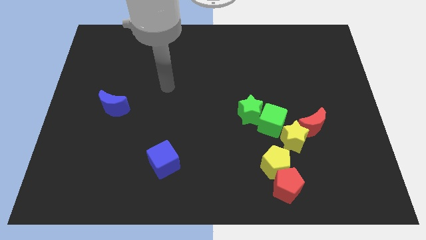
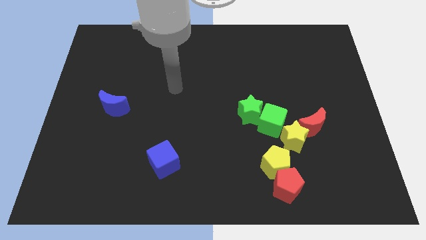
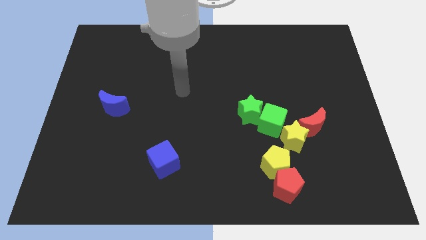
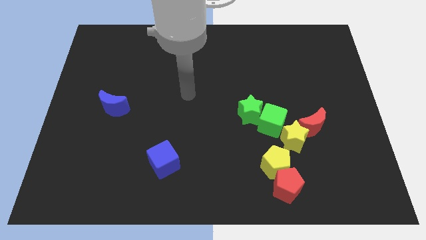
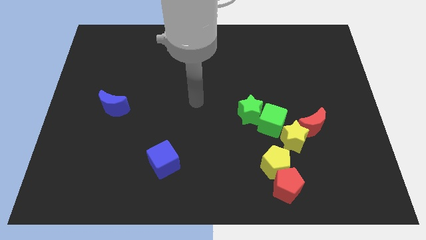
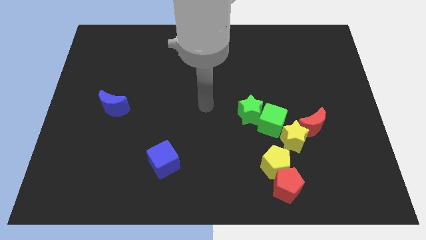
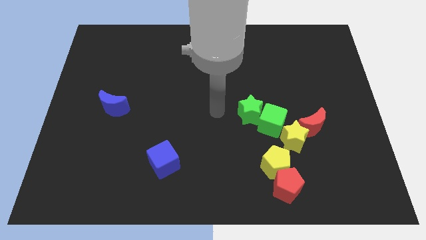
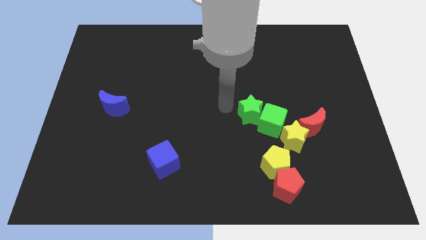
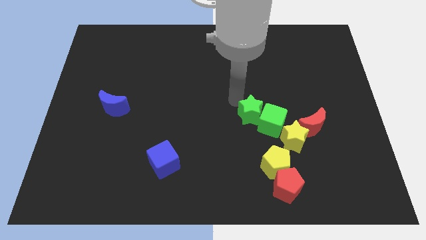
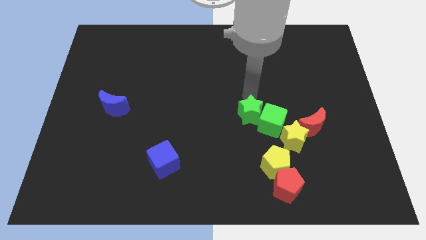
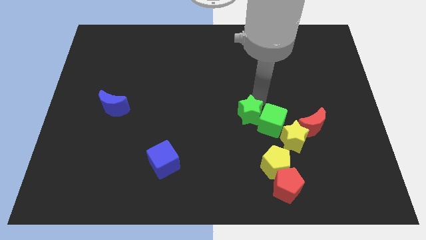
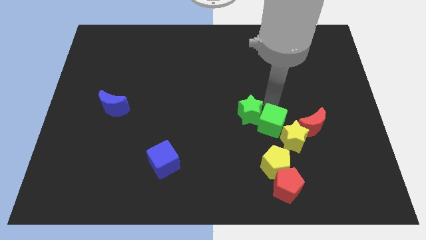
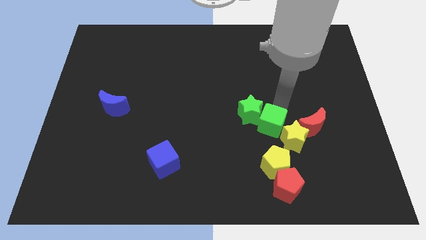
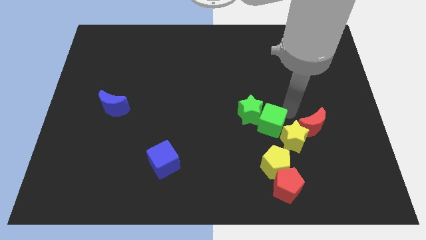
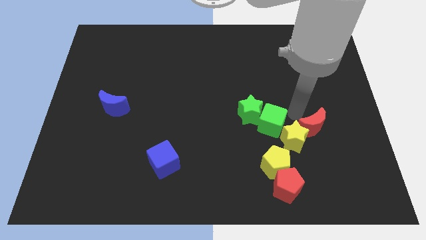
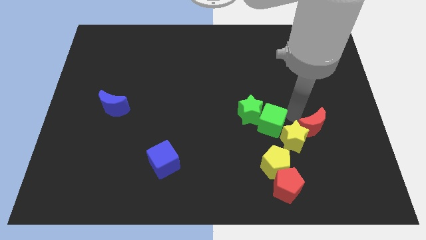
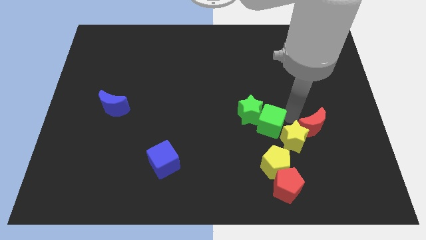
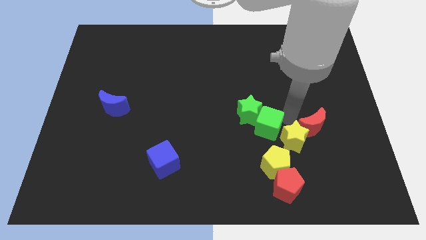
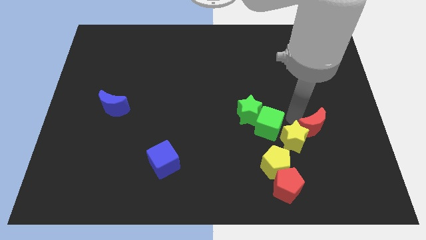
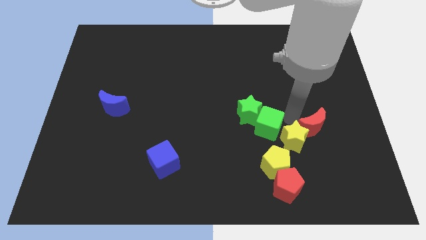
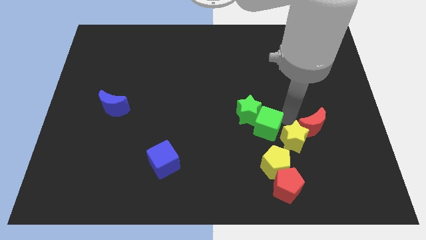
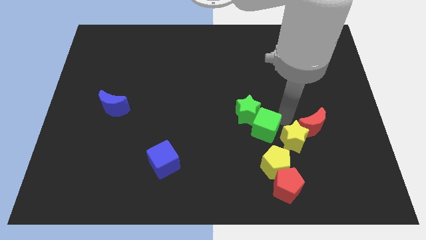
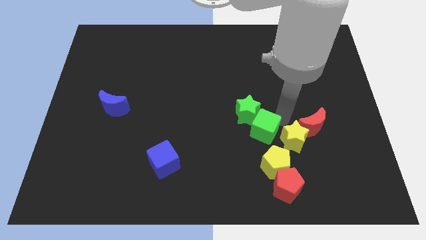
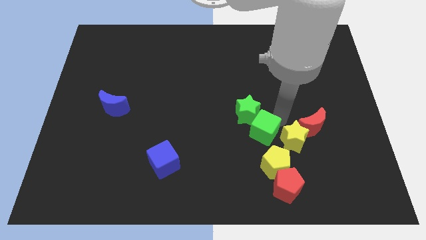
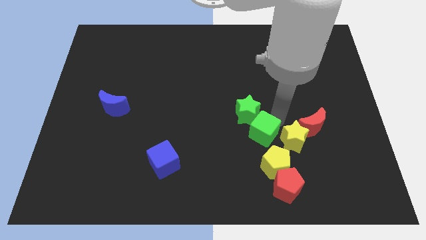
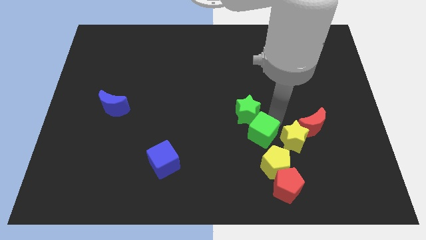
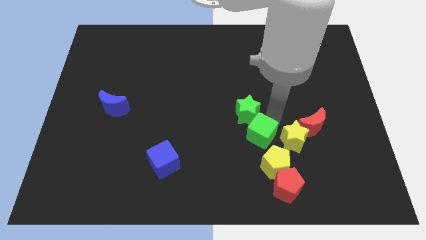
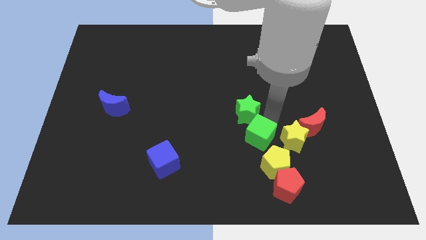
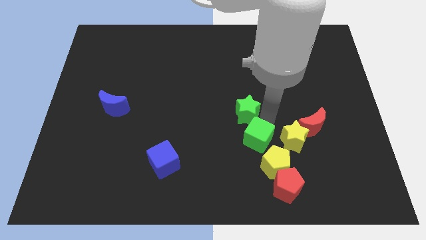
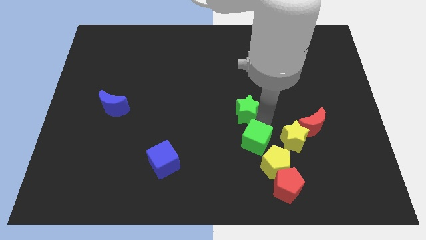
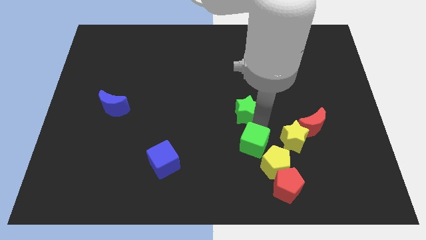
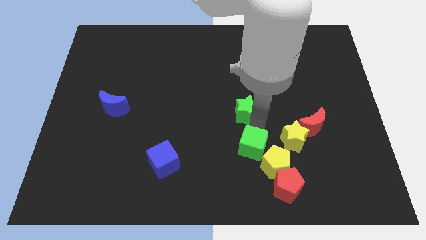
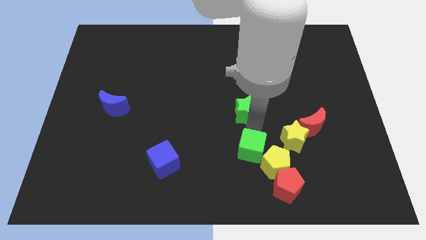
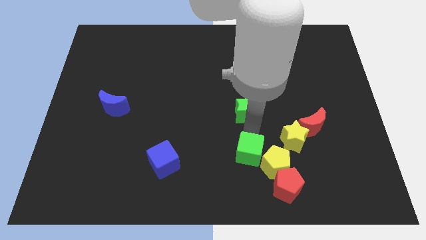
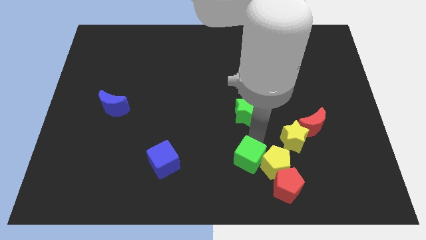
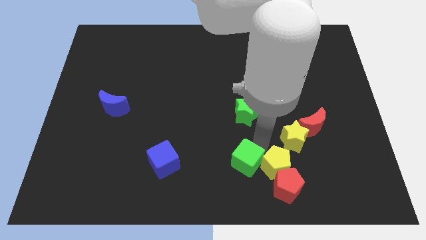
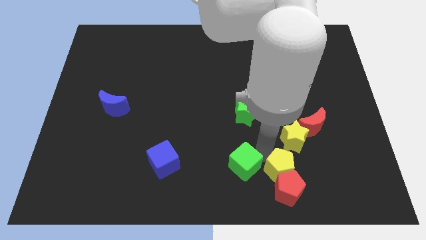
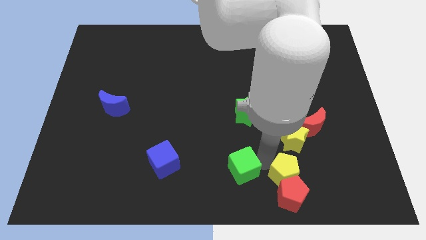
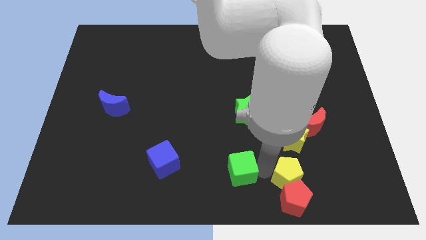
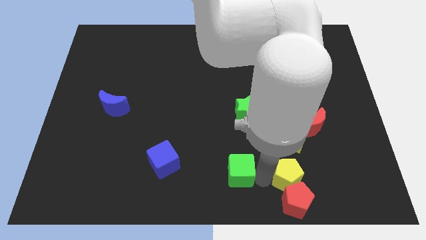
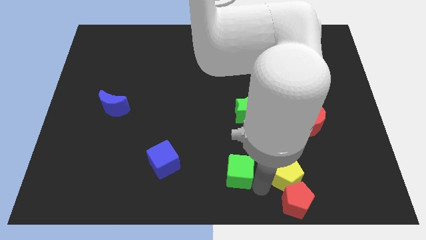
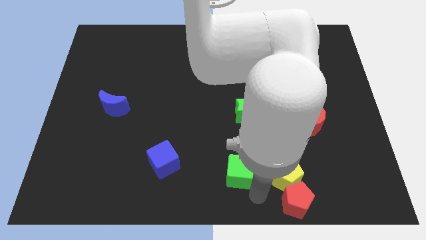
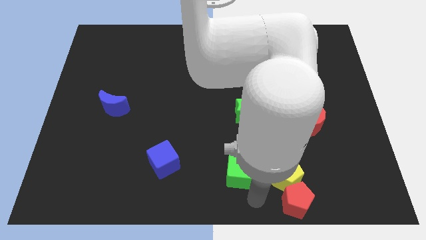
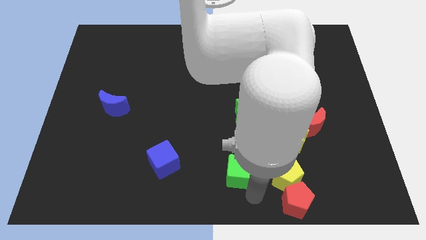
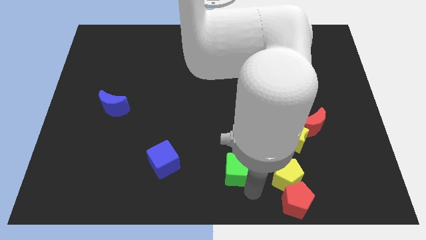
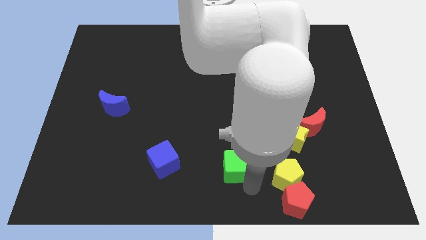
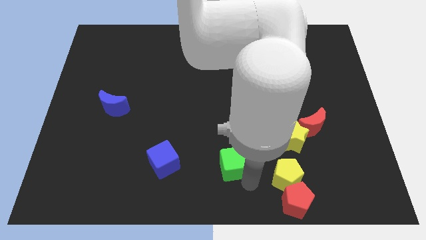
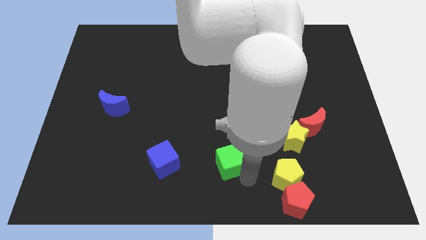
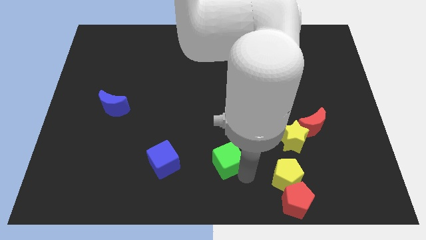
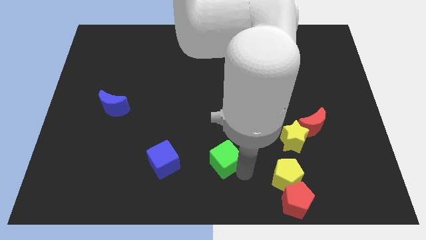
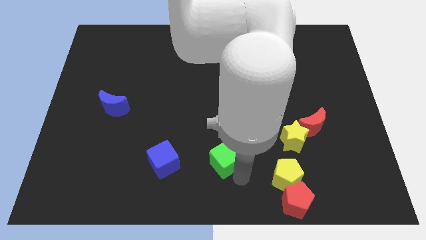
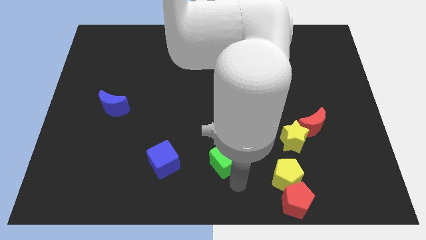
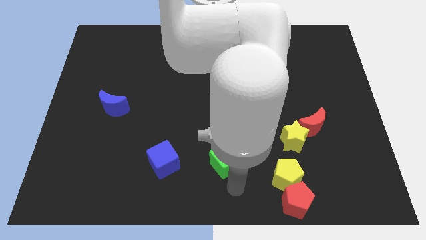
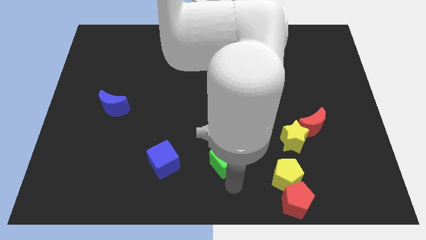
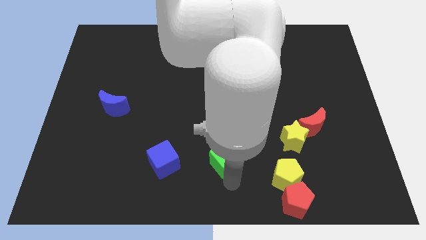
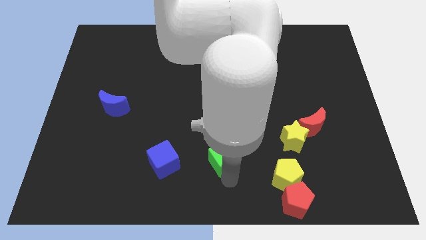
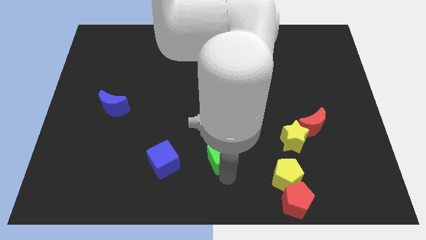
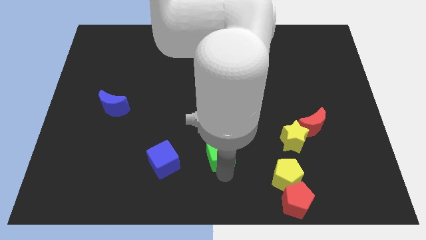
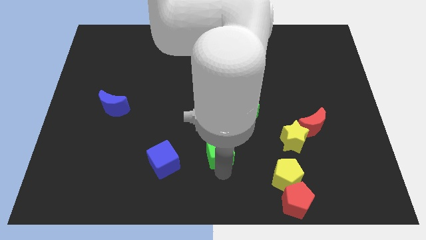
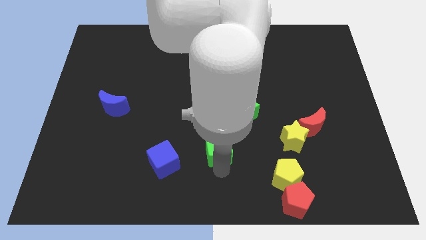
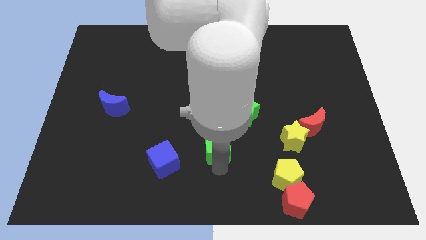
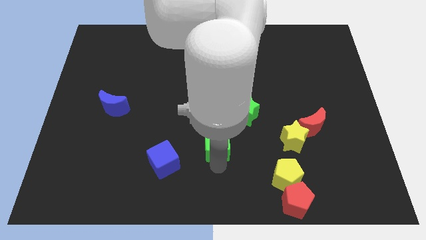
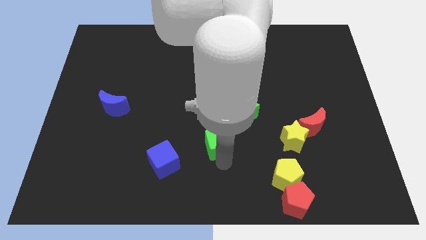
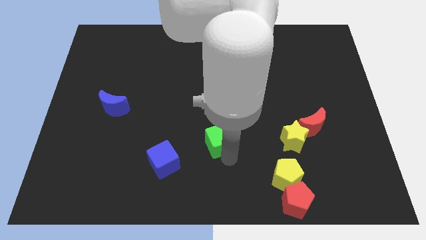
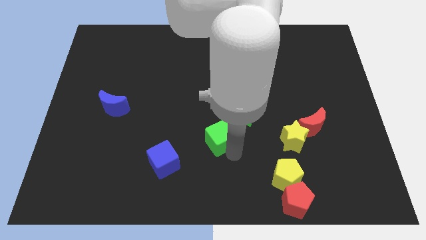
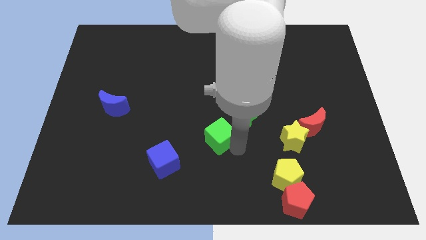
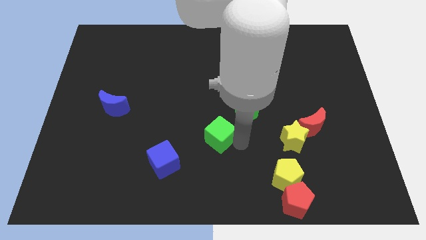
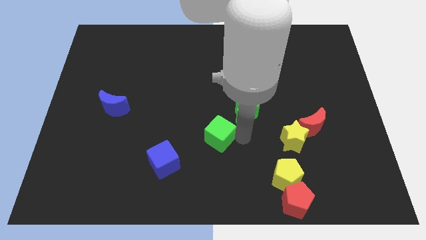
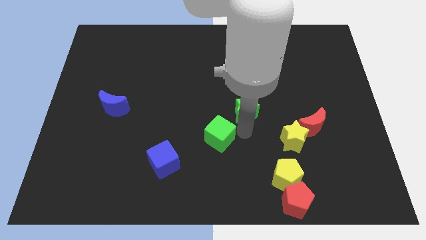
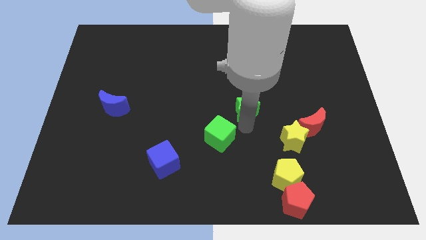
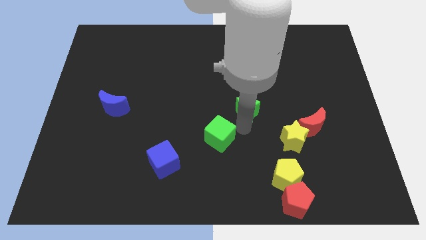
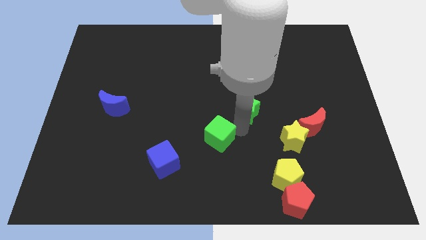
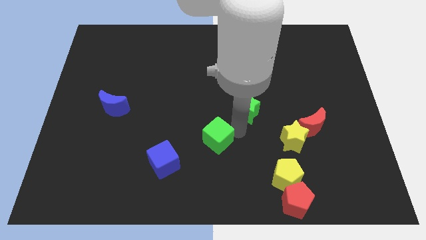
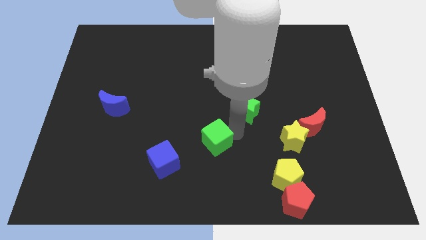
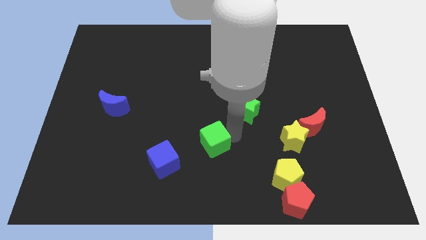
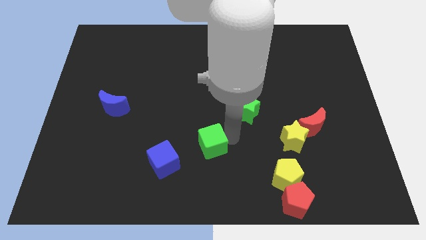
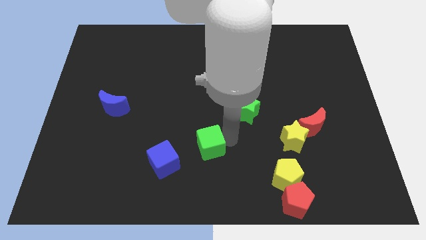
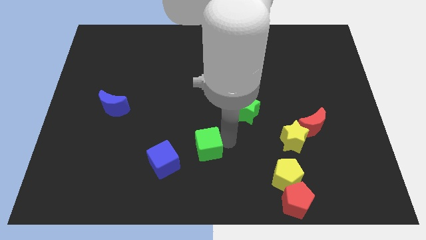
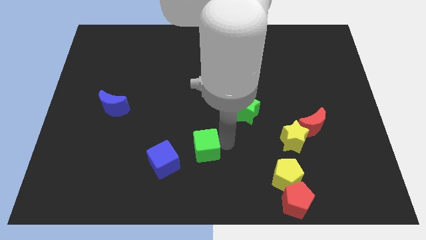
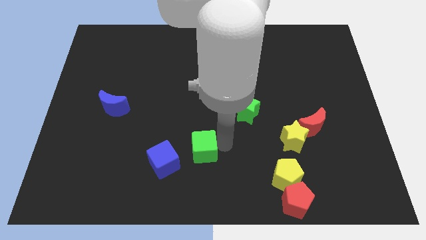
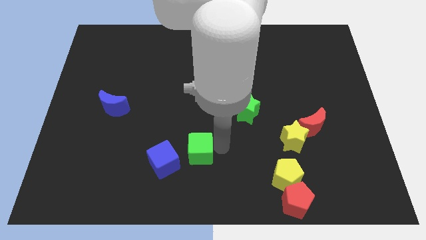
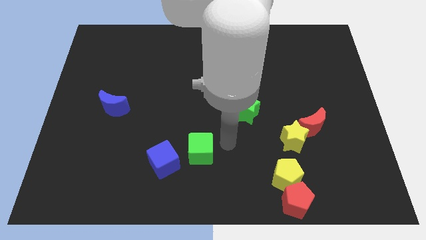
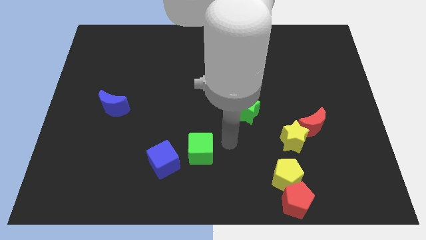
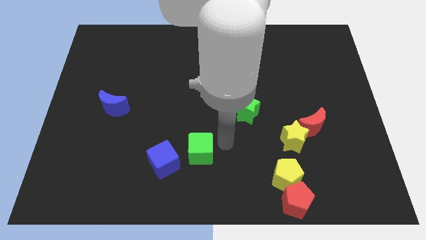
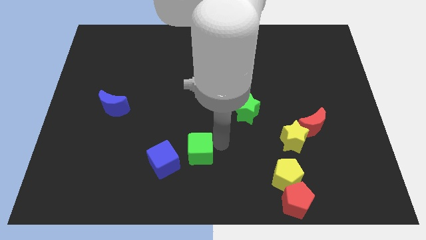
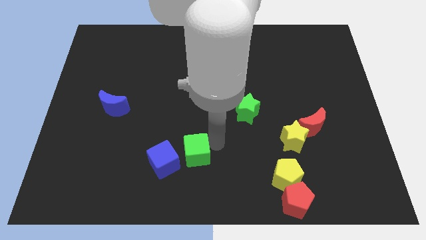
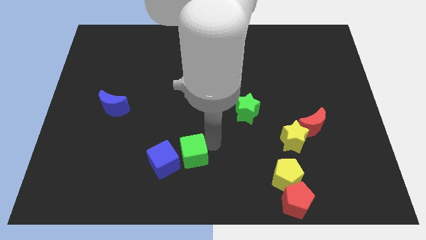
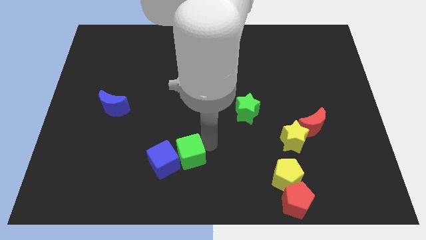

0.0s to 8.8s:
push the green cube towards the blue cube
